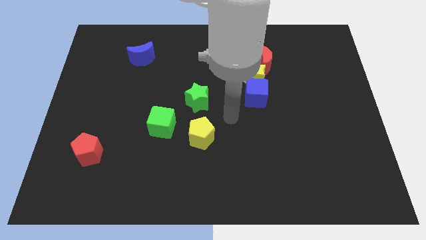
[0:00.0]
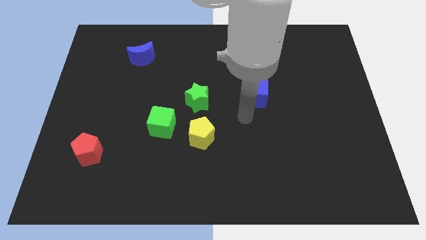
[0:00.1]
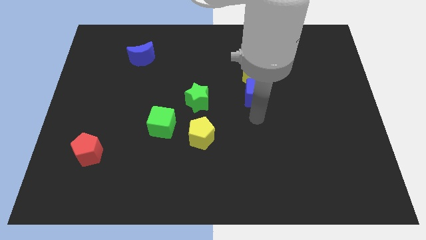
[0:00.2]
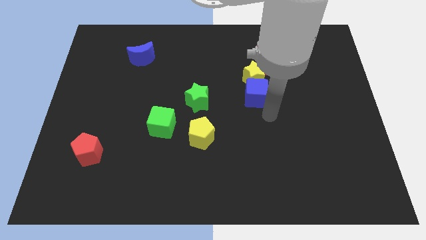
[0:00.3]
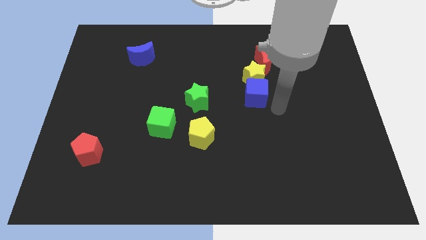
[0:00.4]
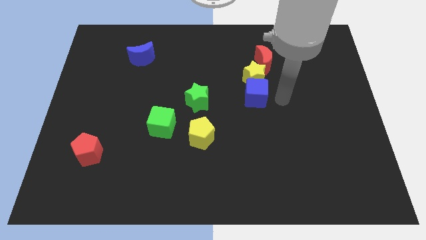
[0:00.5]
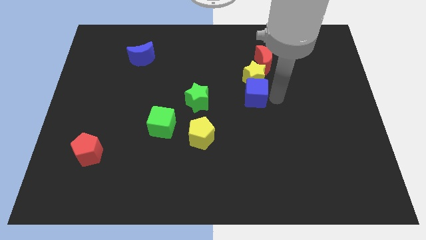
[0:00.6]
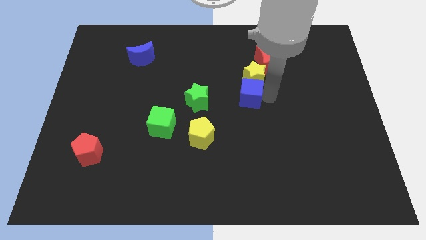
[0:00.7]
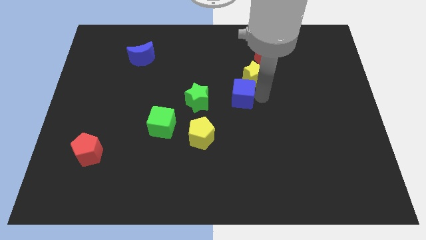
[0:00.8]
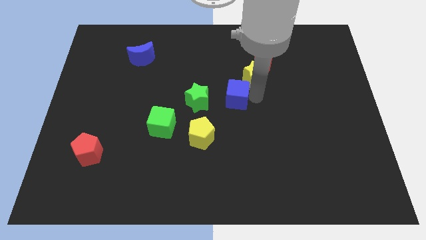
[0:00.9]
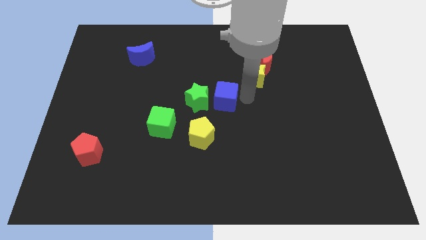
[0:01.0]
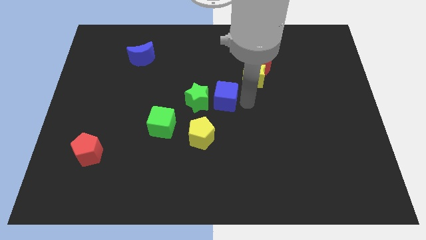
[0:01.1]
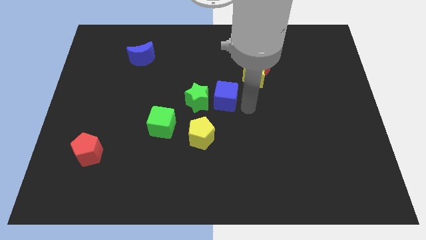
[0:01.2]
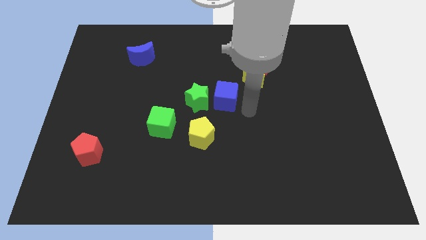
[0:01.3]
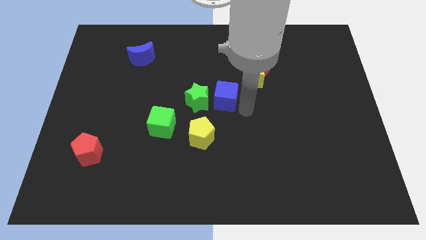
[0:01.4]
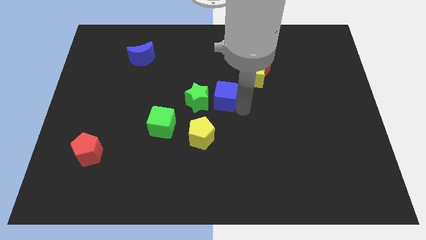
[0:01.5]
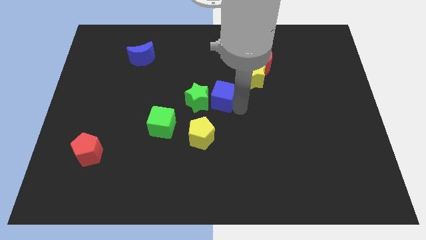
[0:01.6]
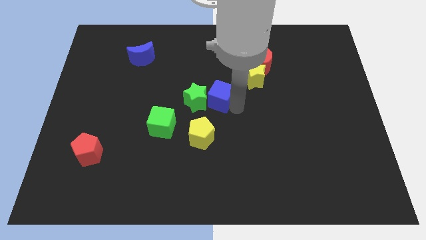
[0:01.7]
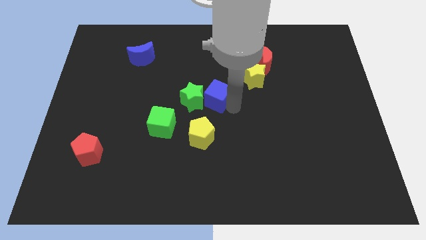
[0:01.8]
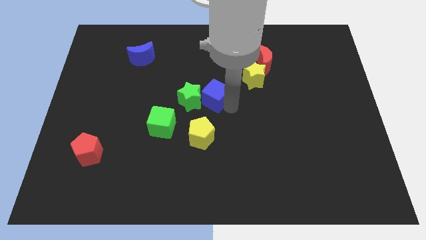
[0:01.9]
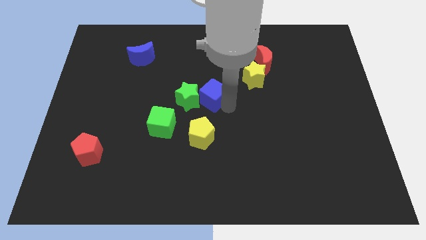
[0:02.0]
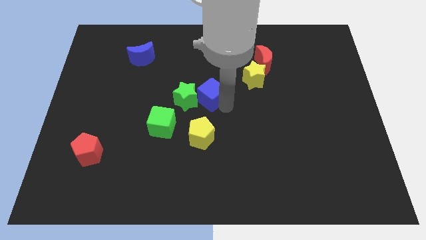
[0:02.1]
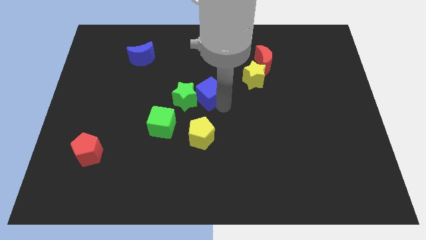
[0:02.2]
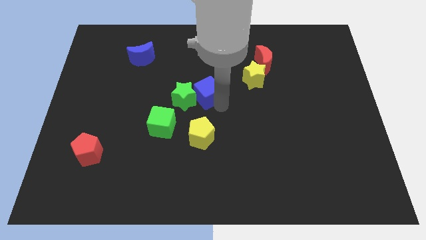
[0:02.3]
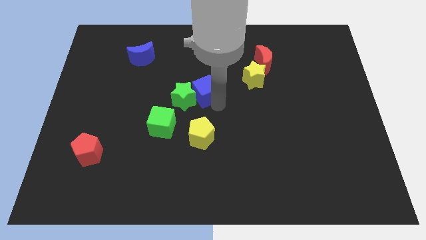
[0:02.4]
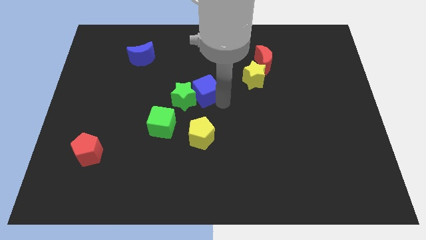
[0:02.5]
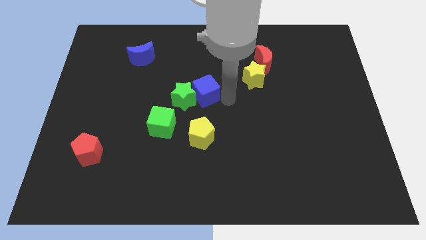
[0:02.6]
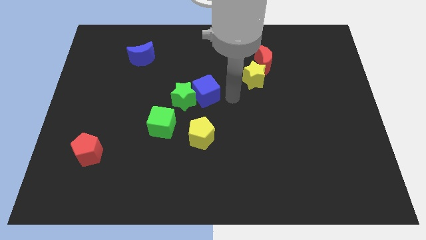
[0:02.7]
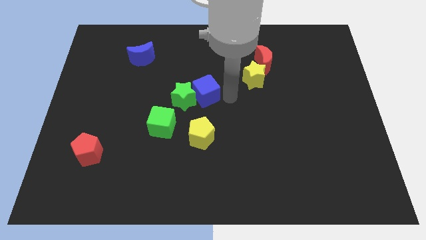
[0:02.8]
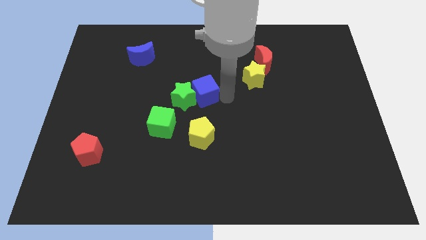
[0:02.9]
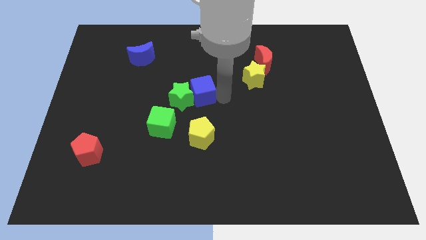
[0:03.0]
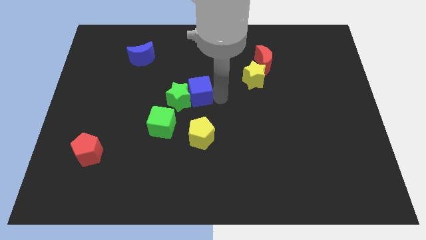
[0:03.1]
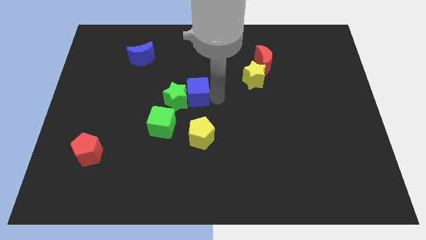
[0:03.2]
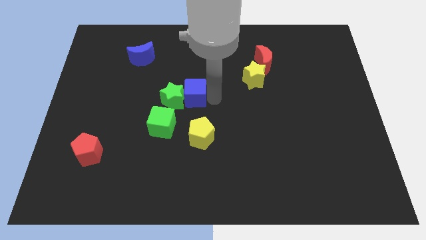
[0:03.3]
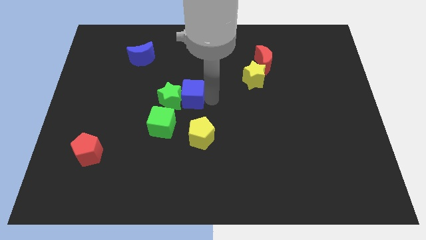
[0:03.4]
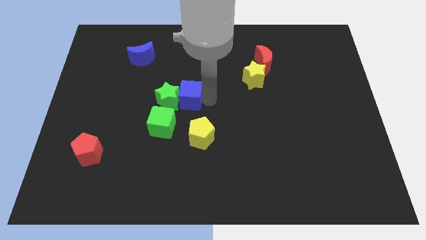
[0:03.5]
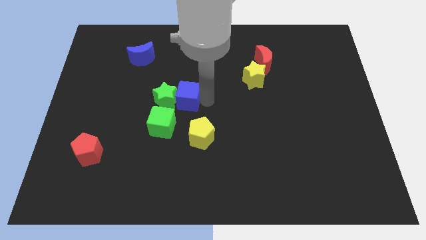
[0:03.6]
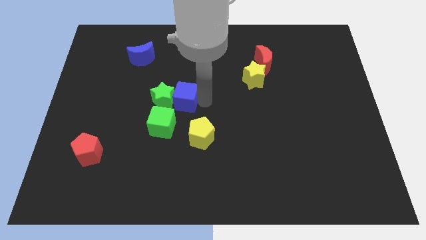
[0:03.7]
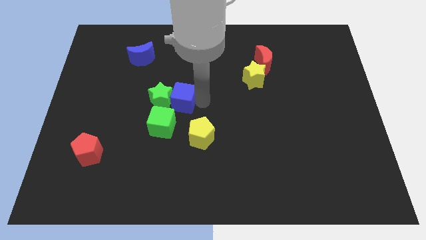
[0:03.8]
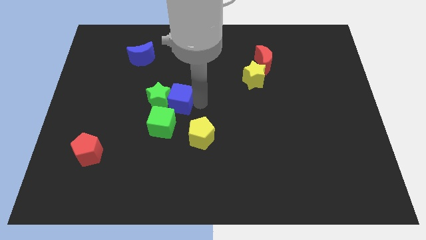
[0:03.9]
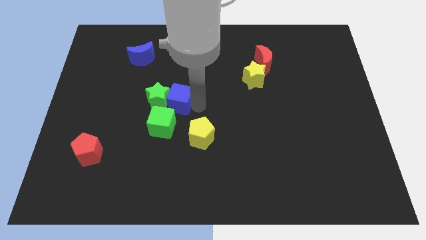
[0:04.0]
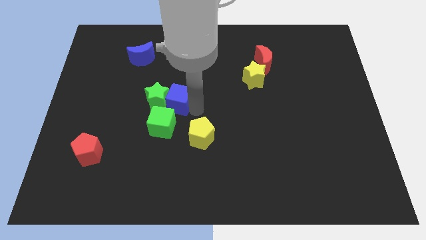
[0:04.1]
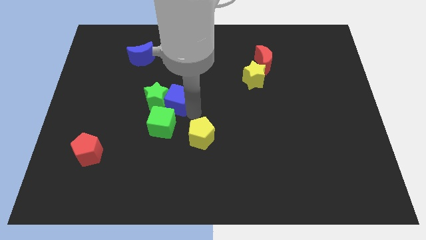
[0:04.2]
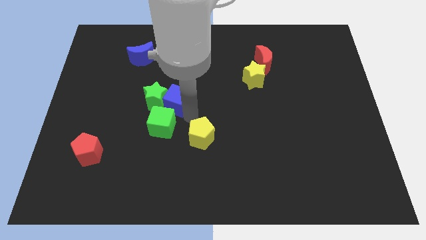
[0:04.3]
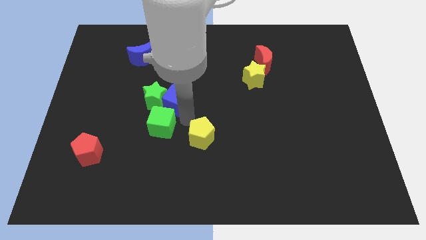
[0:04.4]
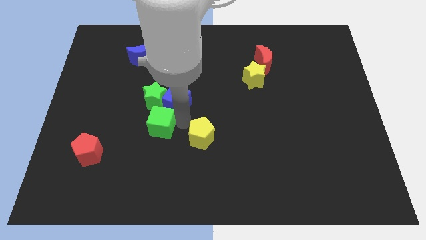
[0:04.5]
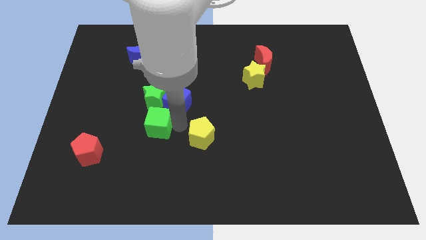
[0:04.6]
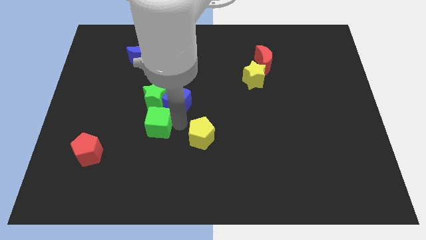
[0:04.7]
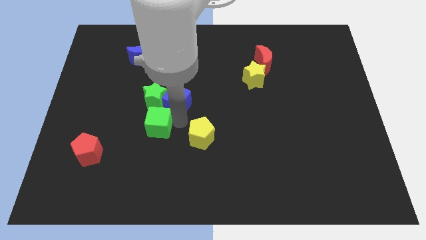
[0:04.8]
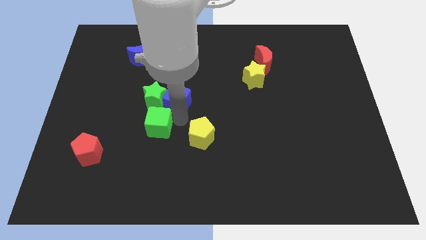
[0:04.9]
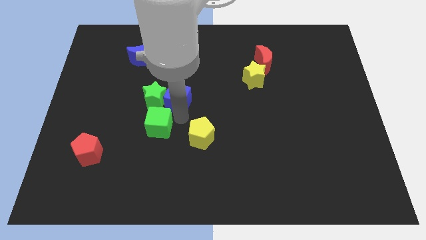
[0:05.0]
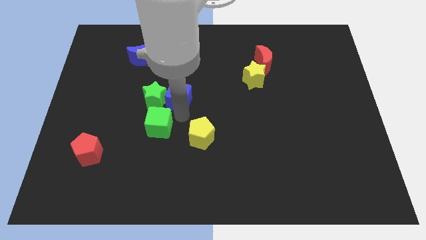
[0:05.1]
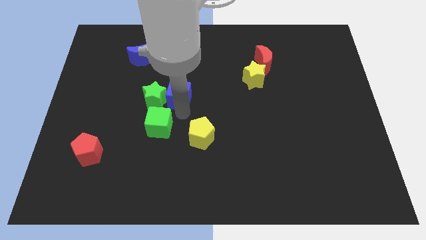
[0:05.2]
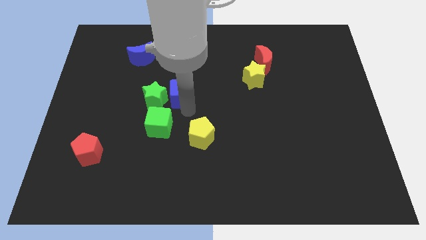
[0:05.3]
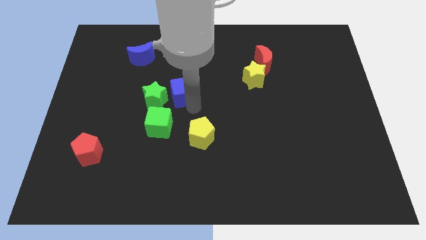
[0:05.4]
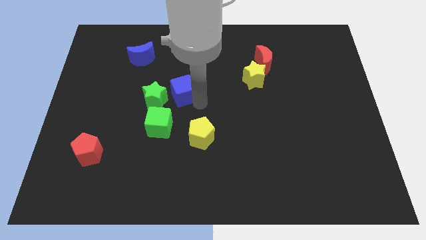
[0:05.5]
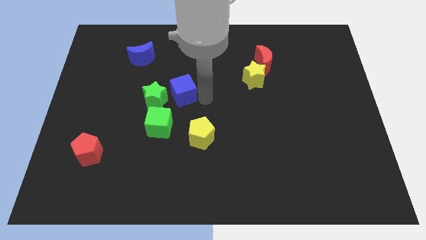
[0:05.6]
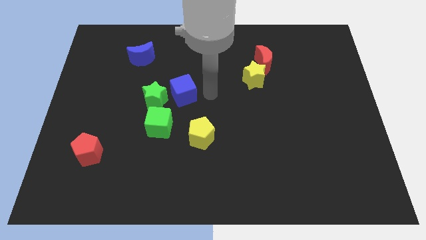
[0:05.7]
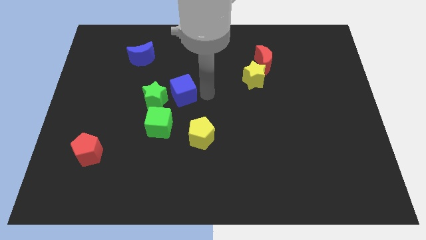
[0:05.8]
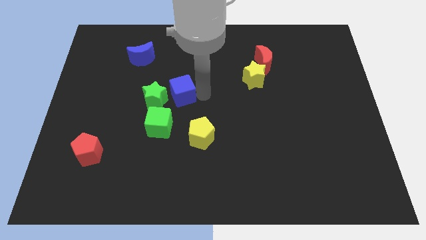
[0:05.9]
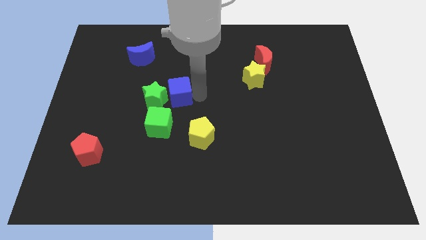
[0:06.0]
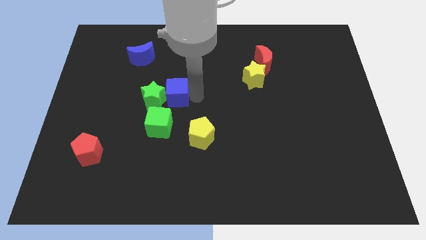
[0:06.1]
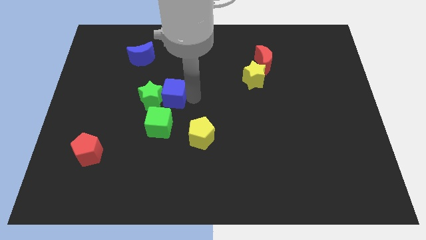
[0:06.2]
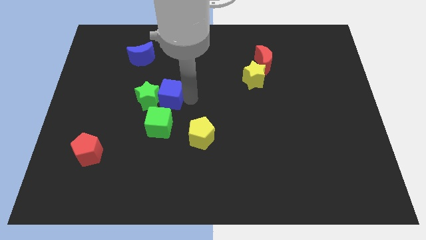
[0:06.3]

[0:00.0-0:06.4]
slide the blue cube left

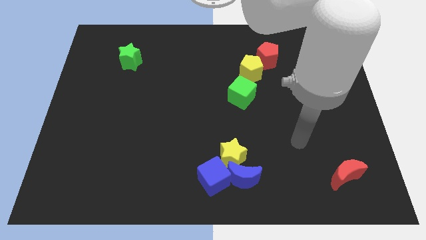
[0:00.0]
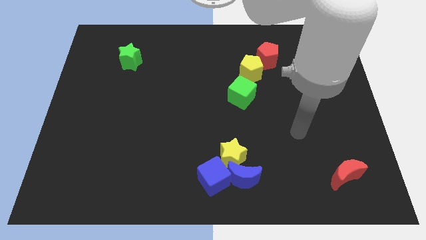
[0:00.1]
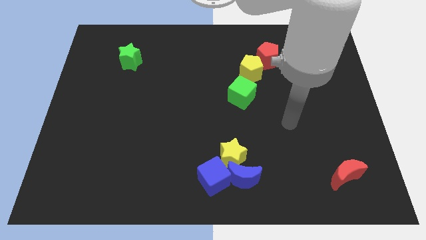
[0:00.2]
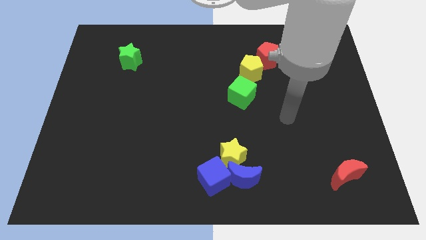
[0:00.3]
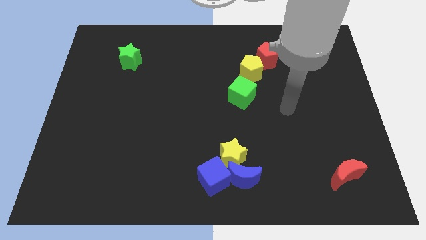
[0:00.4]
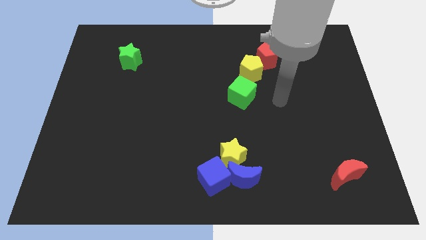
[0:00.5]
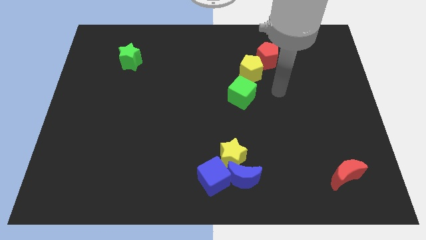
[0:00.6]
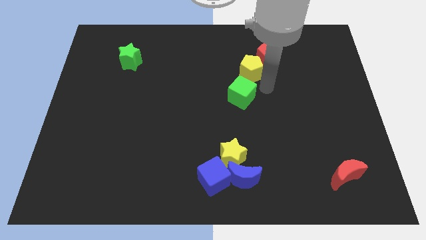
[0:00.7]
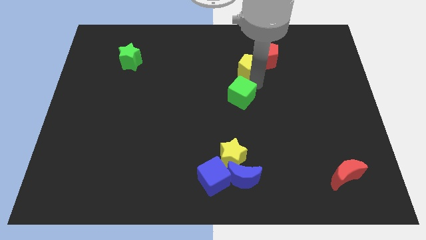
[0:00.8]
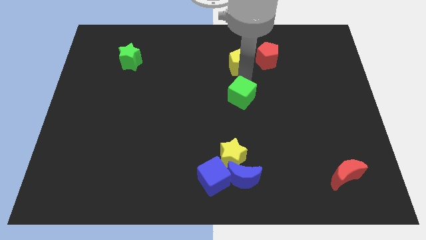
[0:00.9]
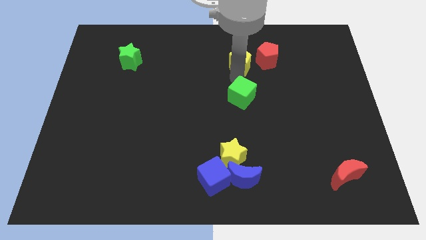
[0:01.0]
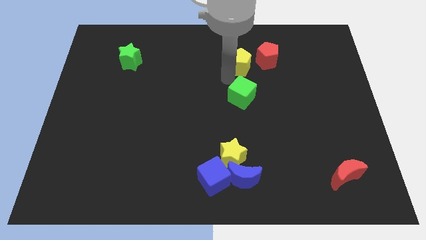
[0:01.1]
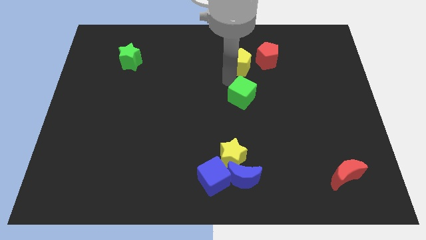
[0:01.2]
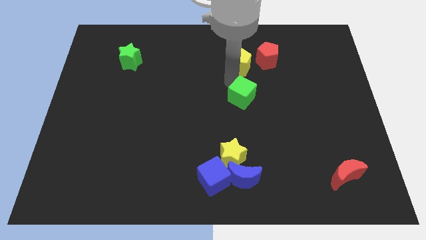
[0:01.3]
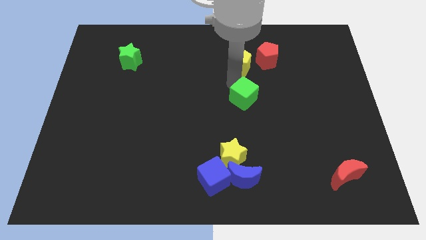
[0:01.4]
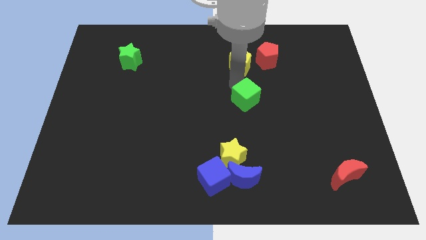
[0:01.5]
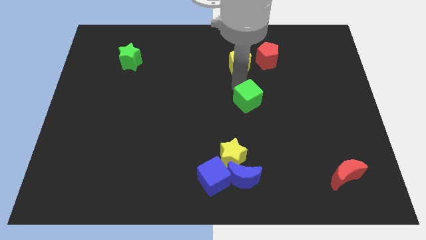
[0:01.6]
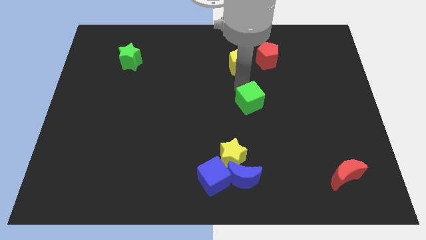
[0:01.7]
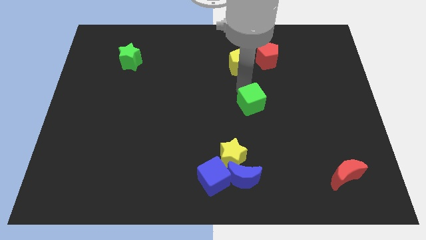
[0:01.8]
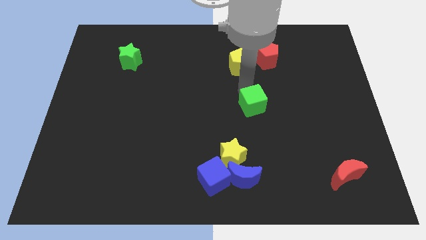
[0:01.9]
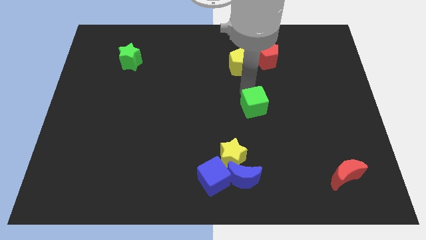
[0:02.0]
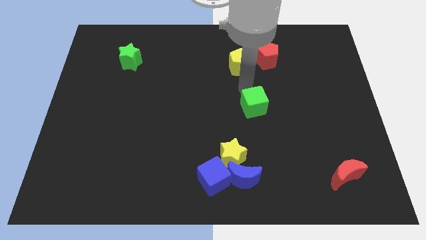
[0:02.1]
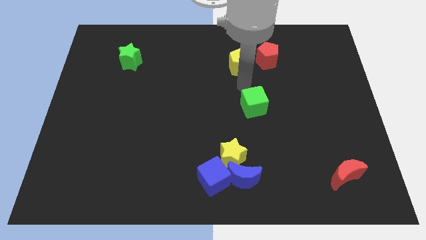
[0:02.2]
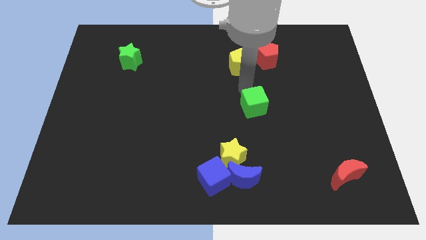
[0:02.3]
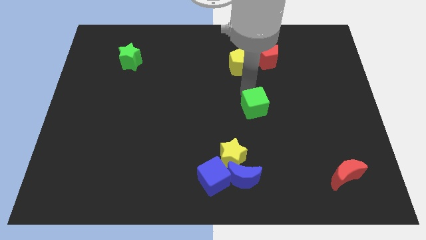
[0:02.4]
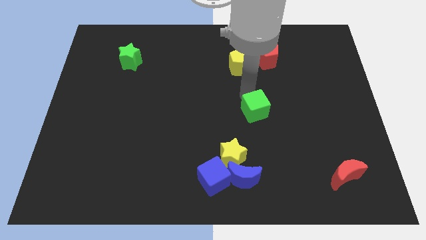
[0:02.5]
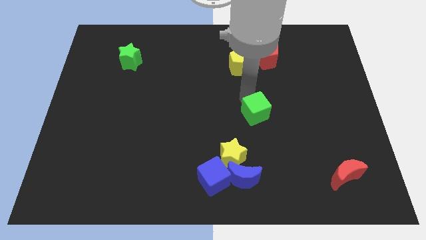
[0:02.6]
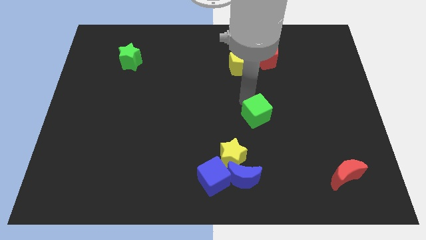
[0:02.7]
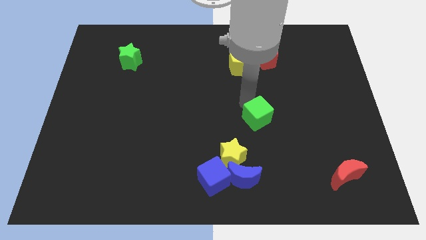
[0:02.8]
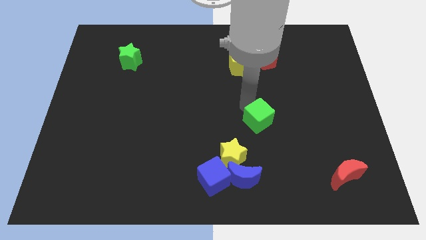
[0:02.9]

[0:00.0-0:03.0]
slide the green cube a little bit downwards and right
